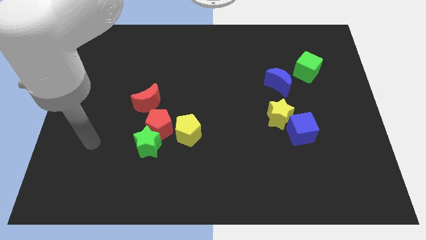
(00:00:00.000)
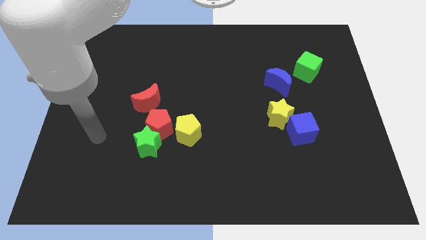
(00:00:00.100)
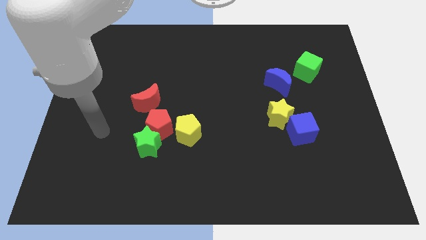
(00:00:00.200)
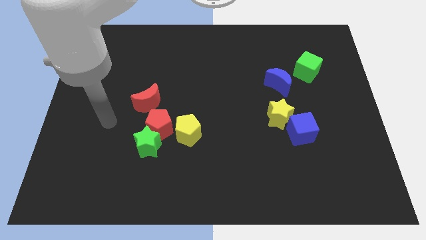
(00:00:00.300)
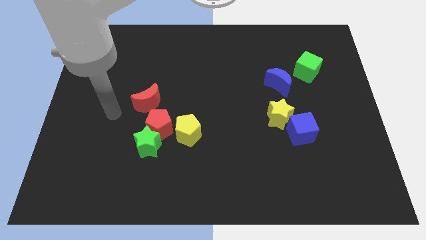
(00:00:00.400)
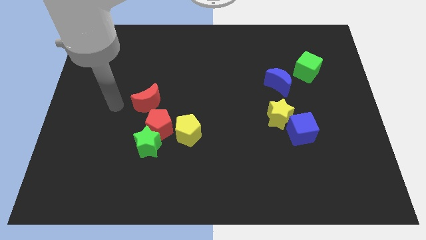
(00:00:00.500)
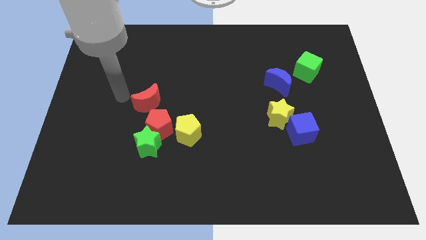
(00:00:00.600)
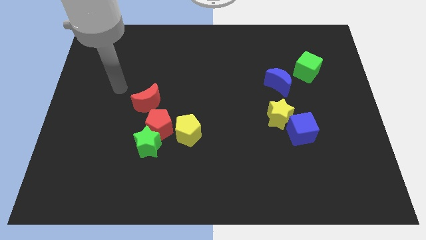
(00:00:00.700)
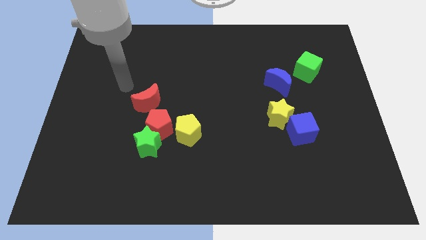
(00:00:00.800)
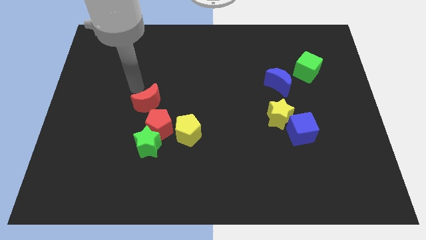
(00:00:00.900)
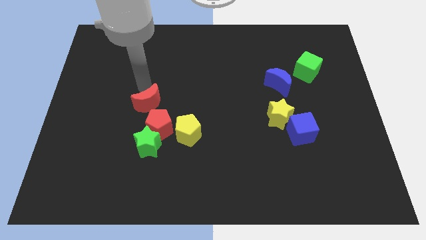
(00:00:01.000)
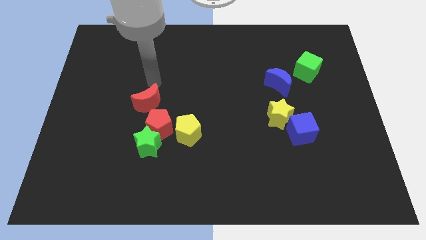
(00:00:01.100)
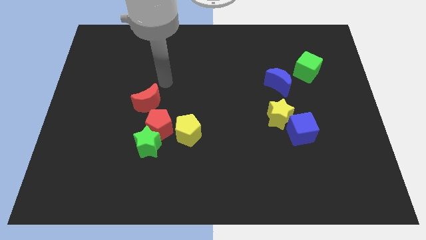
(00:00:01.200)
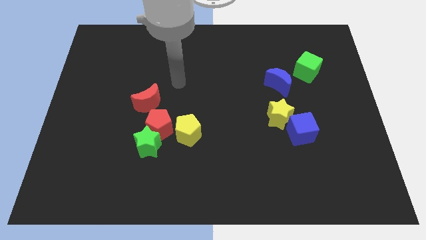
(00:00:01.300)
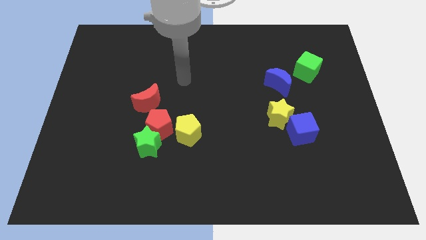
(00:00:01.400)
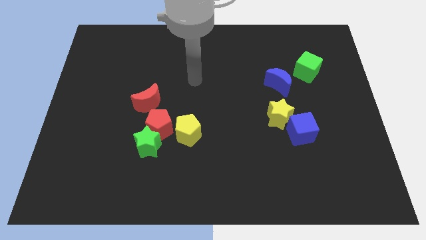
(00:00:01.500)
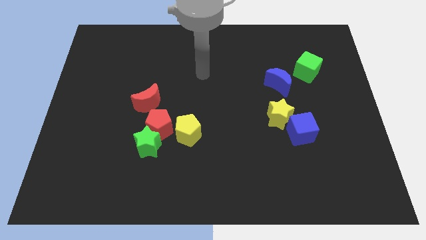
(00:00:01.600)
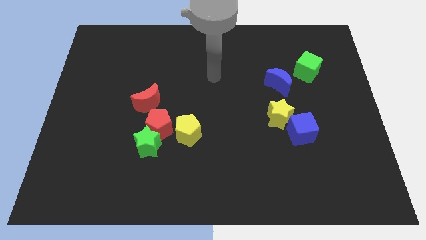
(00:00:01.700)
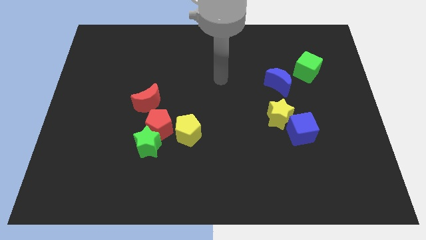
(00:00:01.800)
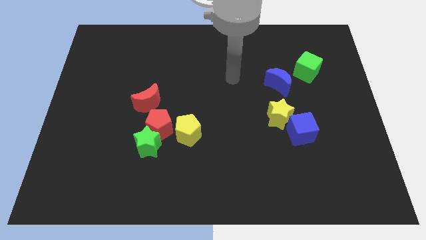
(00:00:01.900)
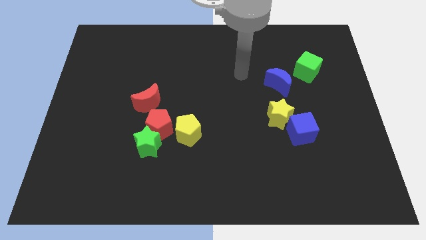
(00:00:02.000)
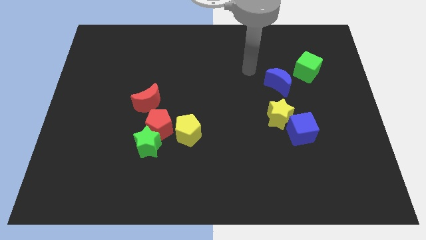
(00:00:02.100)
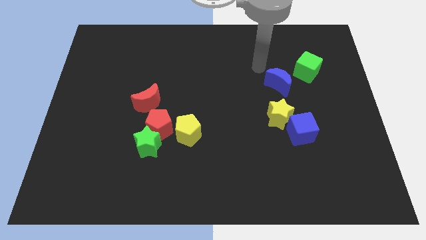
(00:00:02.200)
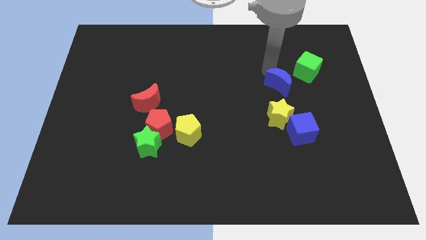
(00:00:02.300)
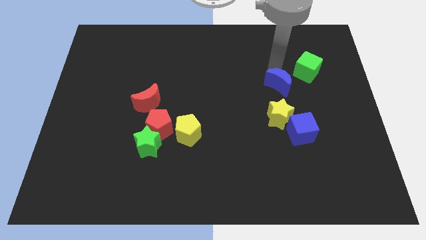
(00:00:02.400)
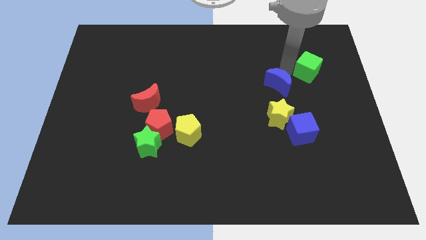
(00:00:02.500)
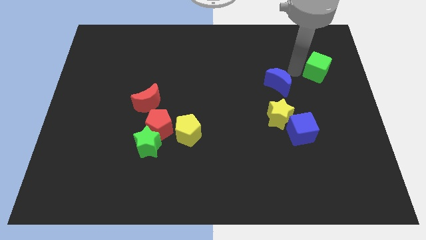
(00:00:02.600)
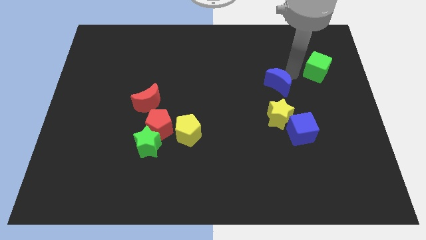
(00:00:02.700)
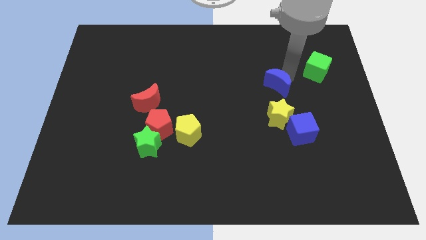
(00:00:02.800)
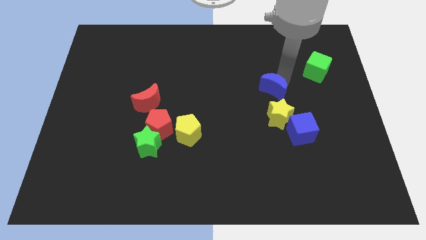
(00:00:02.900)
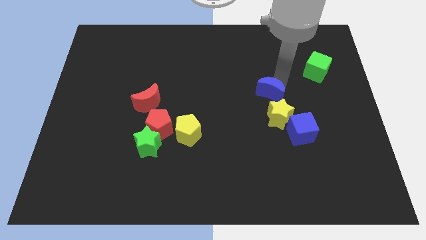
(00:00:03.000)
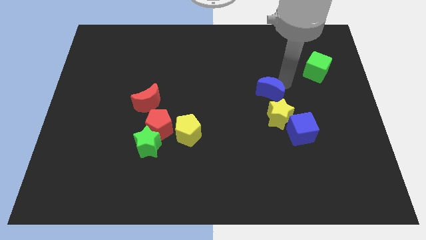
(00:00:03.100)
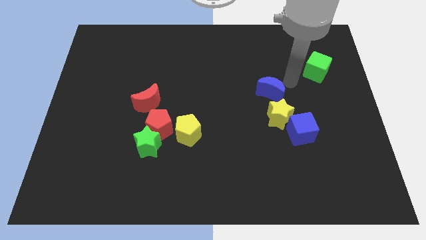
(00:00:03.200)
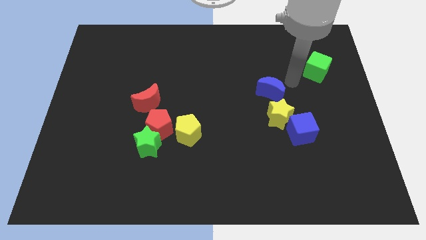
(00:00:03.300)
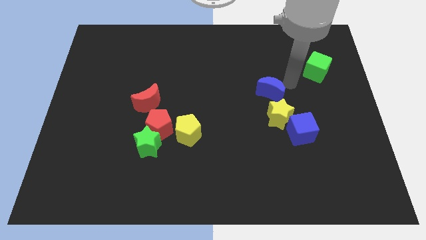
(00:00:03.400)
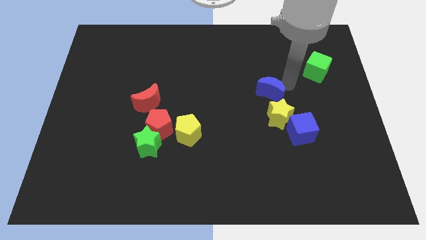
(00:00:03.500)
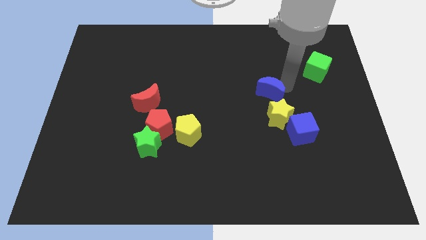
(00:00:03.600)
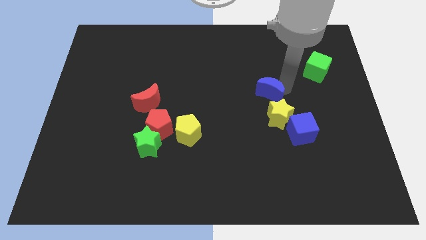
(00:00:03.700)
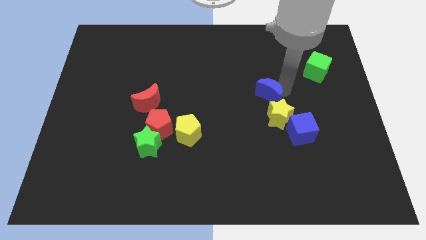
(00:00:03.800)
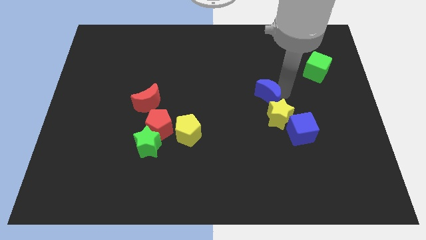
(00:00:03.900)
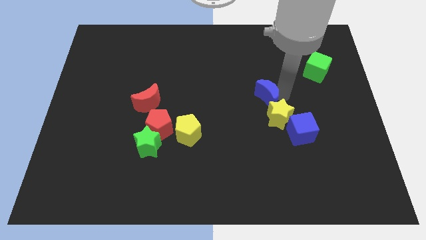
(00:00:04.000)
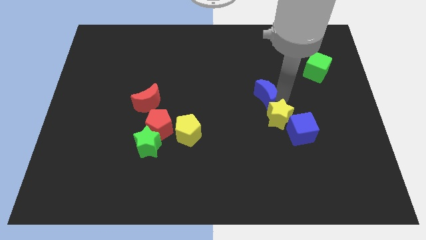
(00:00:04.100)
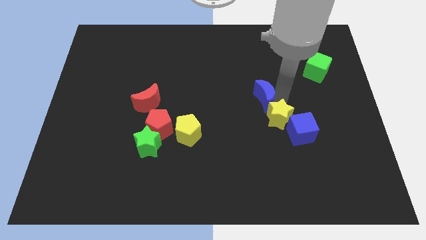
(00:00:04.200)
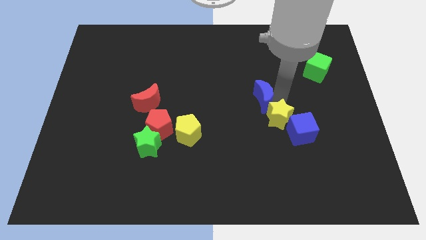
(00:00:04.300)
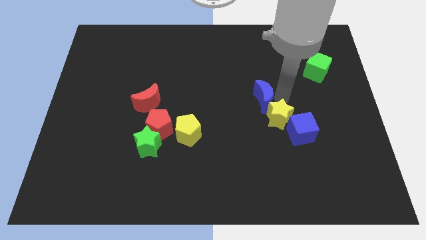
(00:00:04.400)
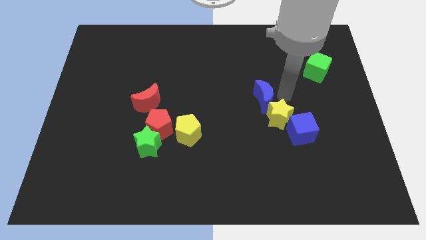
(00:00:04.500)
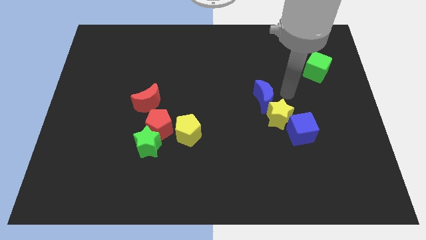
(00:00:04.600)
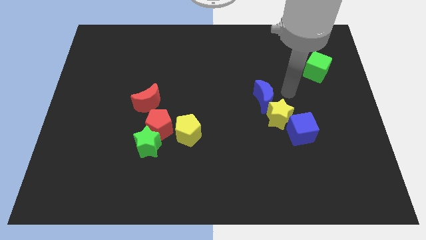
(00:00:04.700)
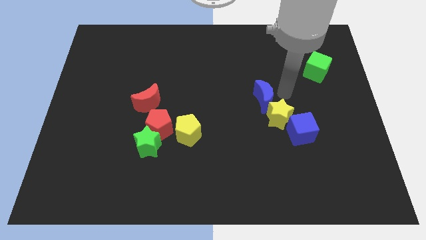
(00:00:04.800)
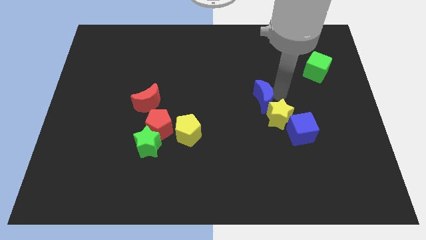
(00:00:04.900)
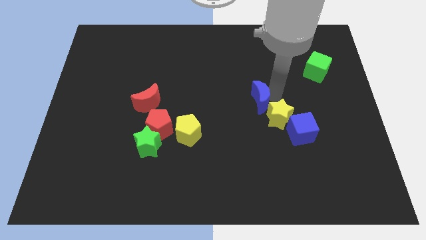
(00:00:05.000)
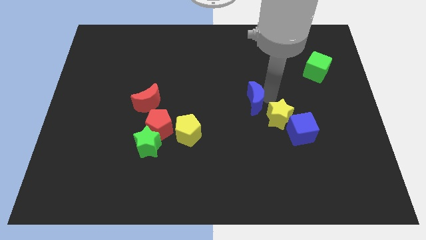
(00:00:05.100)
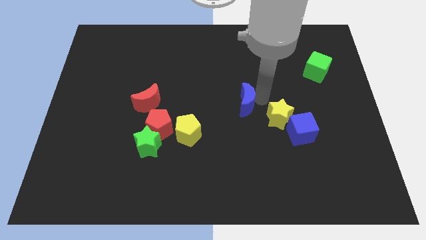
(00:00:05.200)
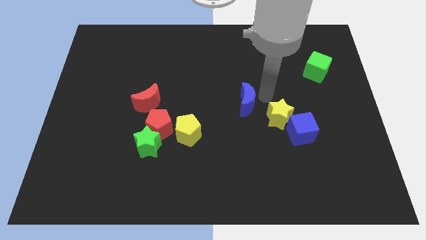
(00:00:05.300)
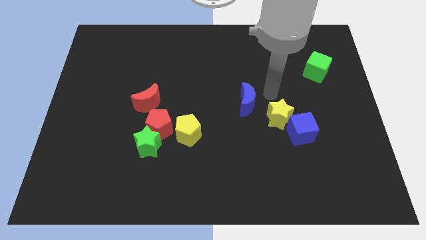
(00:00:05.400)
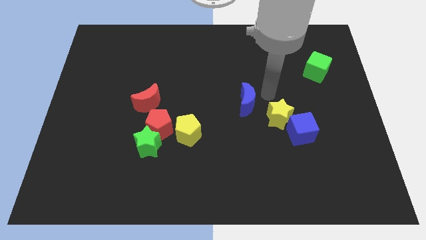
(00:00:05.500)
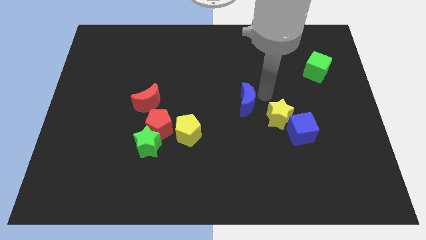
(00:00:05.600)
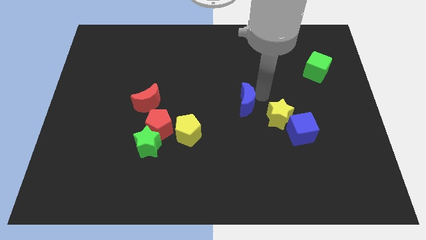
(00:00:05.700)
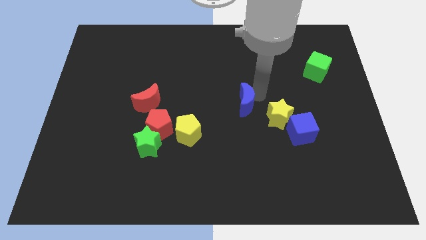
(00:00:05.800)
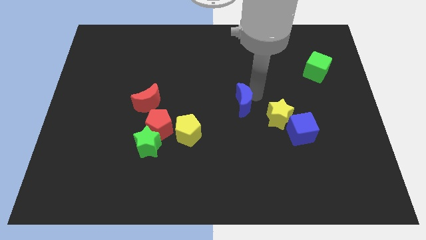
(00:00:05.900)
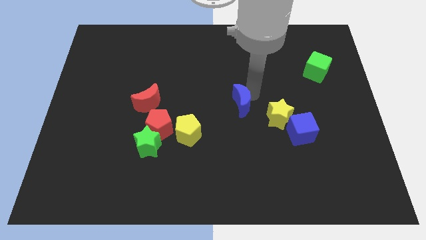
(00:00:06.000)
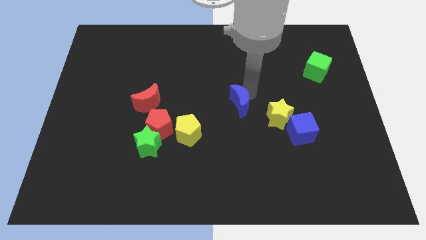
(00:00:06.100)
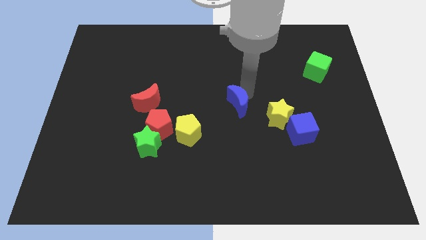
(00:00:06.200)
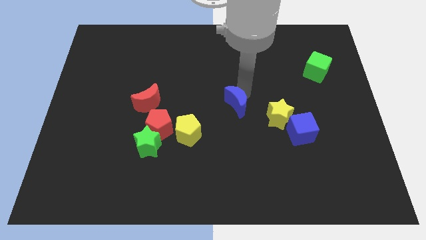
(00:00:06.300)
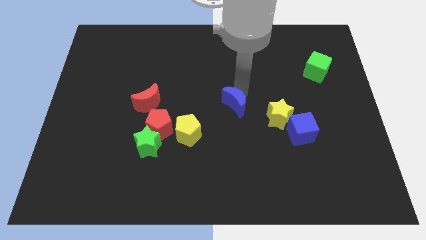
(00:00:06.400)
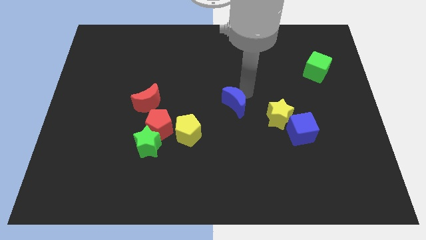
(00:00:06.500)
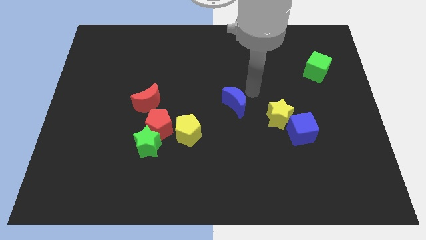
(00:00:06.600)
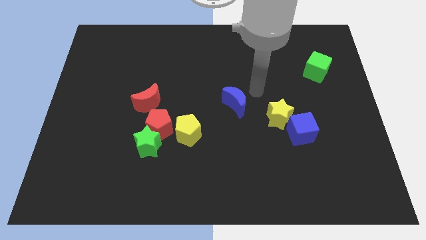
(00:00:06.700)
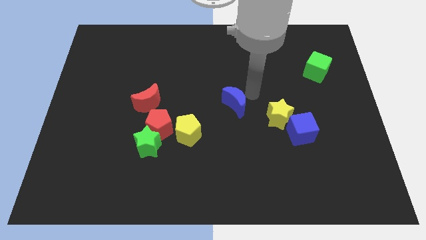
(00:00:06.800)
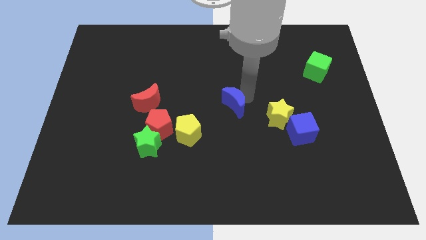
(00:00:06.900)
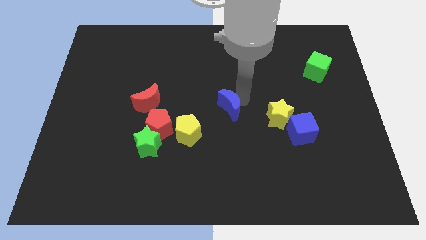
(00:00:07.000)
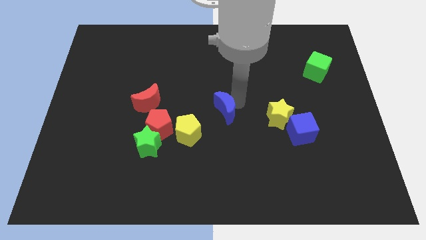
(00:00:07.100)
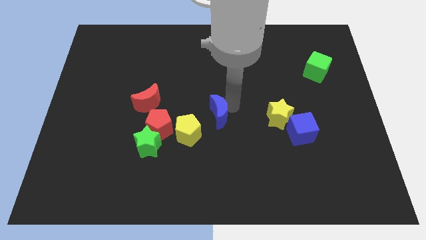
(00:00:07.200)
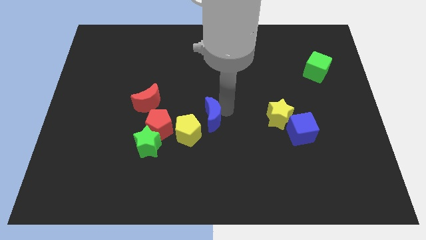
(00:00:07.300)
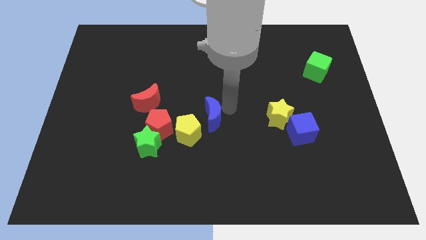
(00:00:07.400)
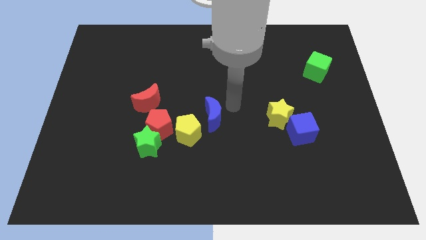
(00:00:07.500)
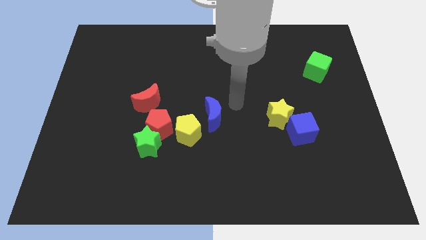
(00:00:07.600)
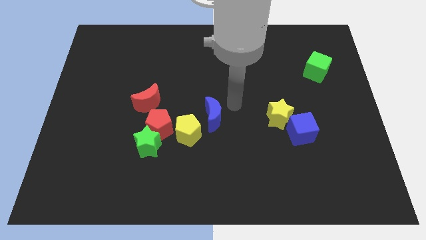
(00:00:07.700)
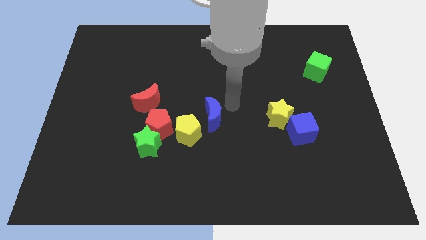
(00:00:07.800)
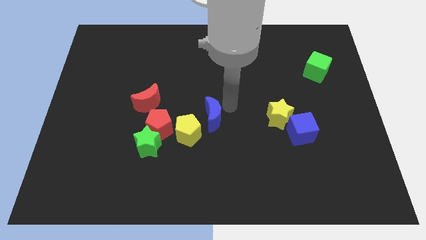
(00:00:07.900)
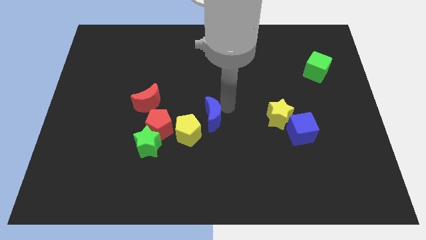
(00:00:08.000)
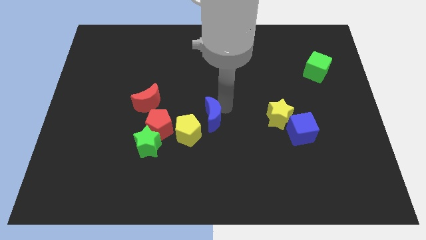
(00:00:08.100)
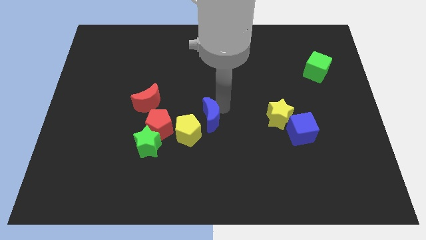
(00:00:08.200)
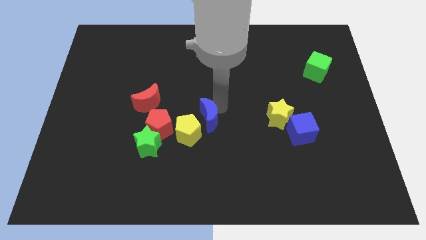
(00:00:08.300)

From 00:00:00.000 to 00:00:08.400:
move the blue moon towards the yellow pentagon
